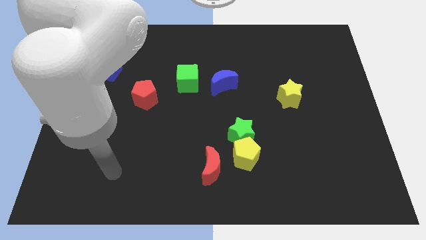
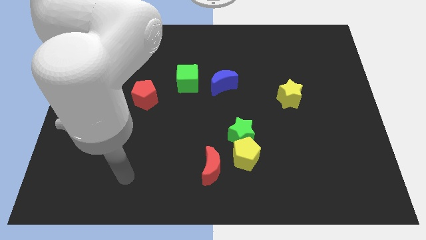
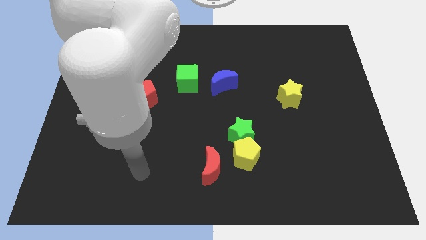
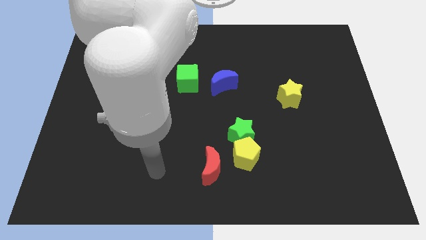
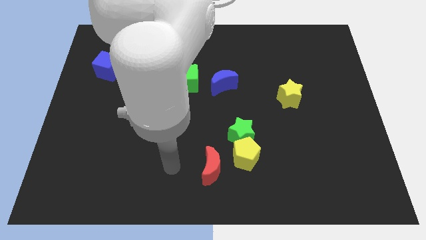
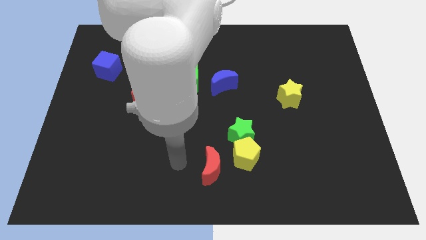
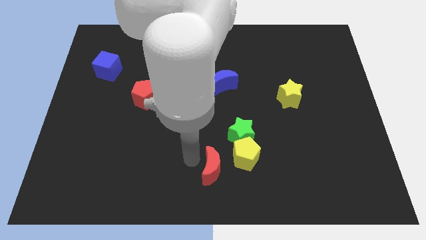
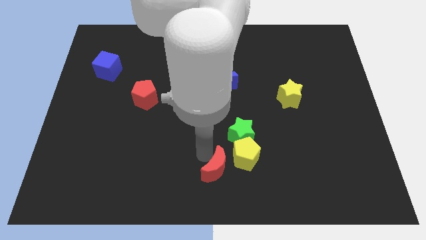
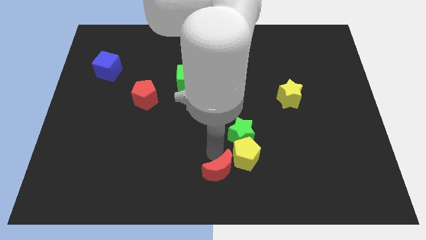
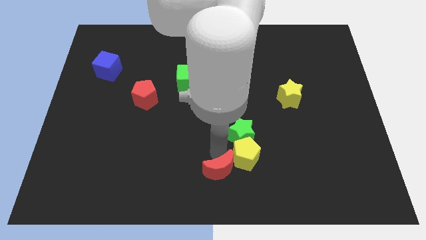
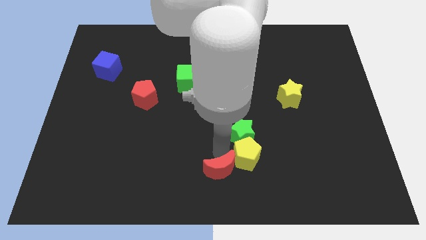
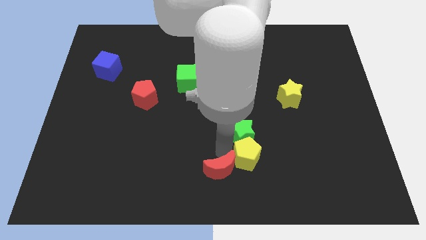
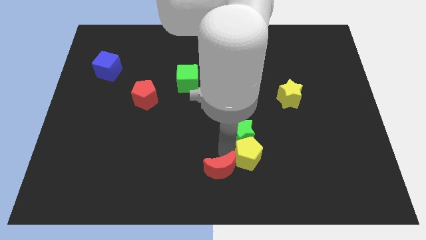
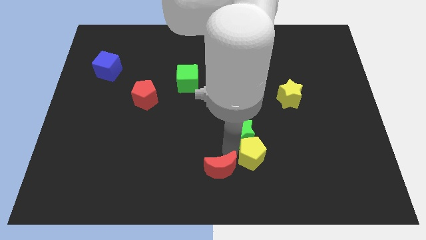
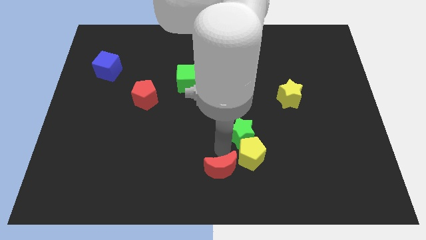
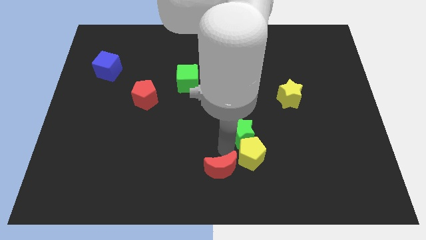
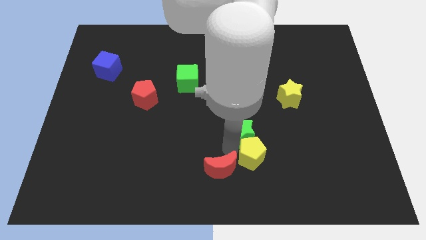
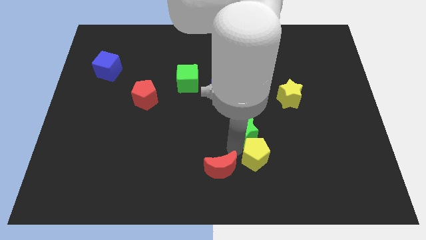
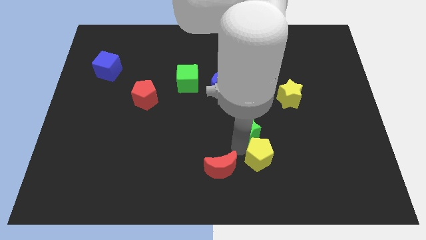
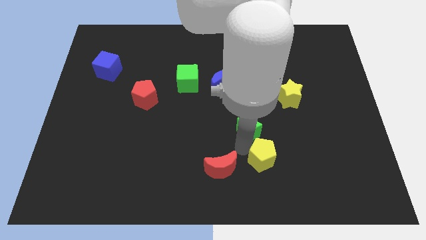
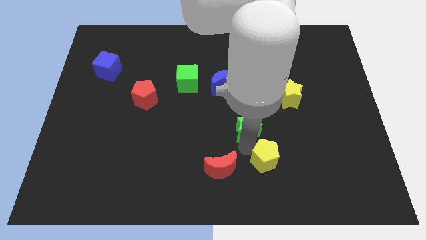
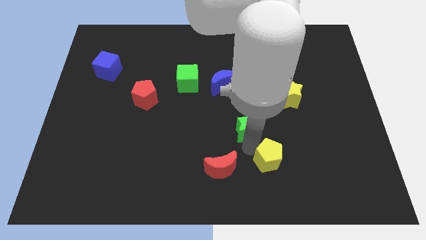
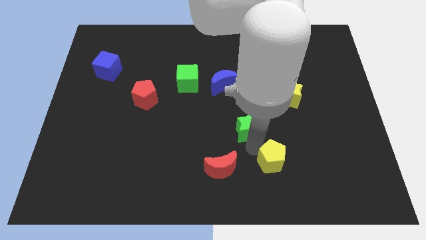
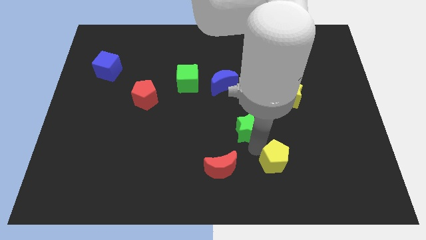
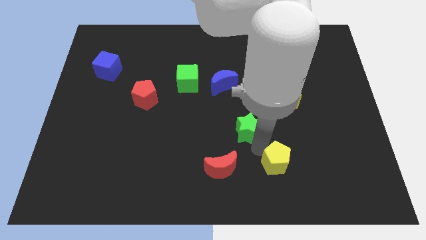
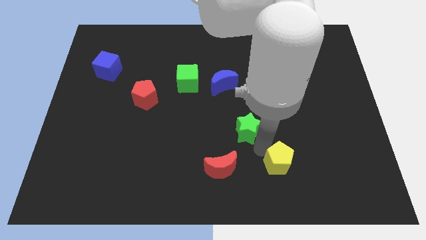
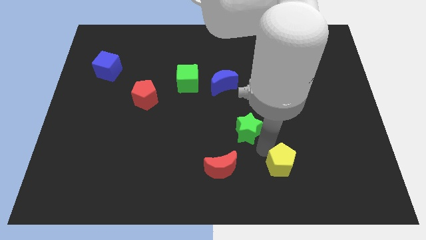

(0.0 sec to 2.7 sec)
move the yellow pentagon away from the green star and red moon

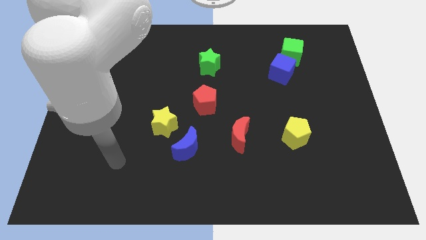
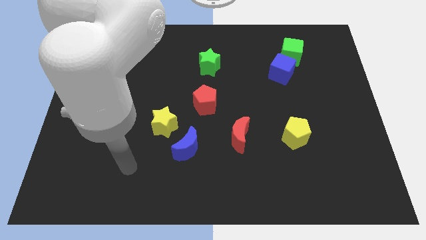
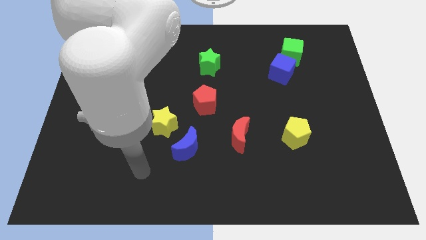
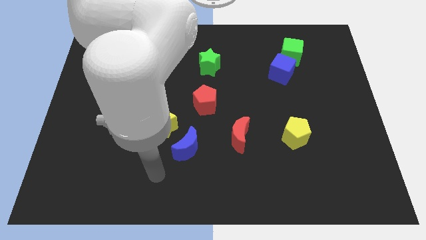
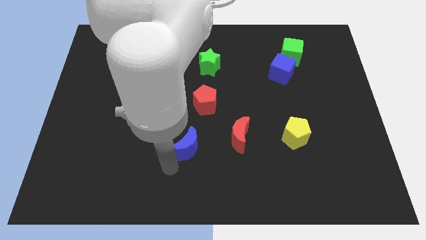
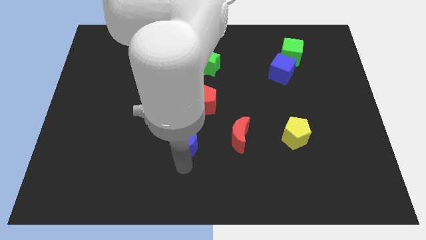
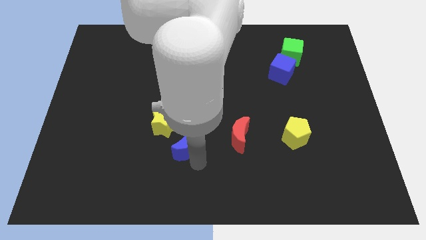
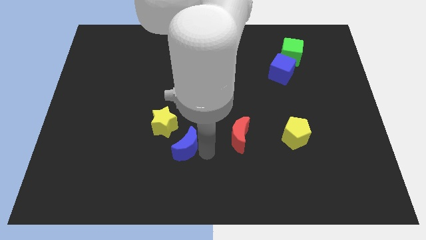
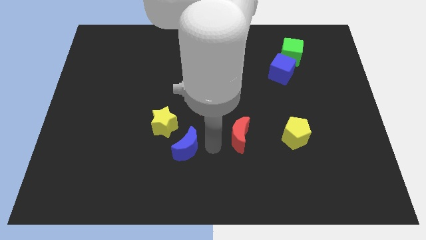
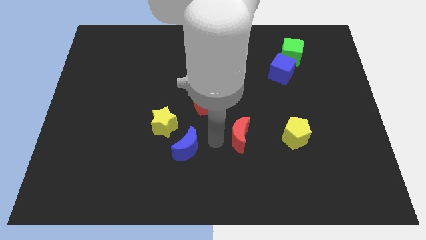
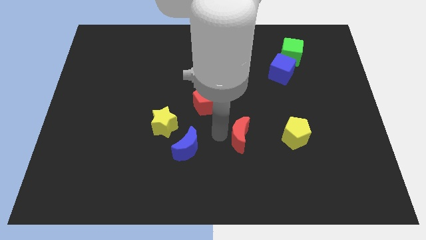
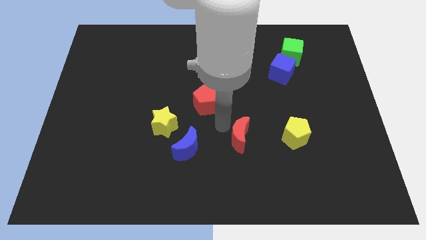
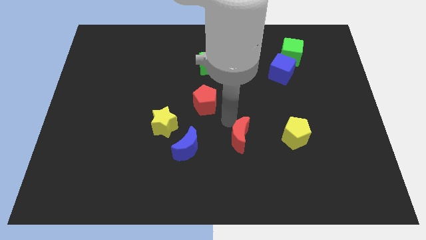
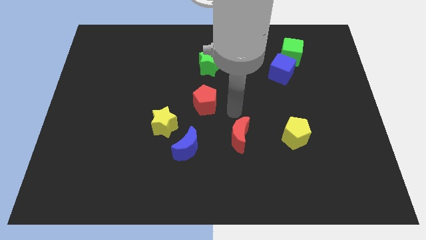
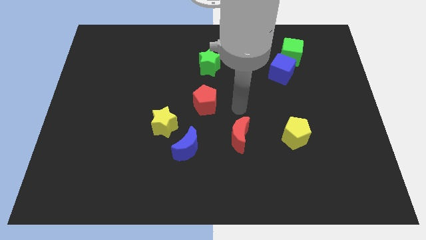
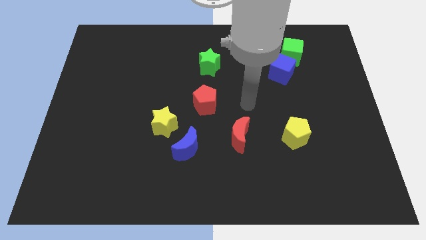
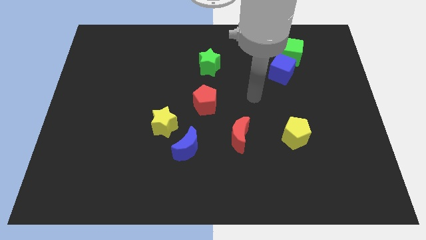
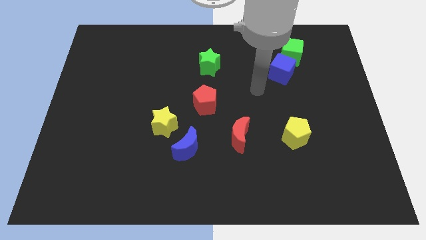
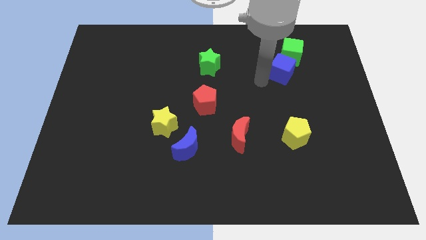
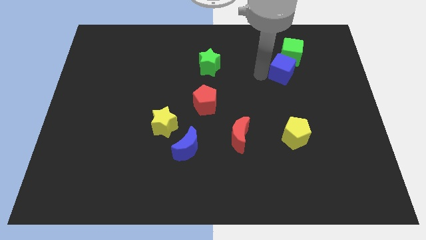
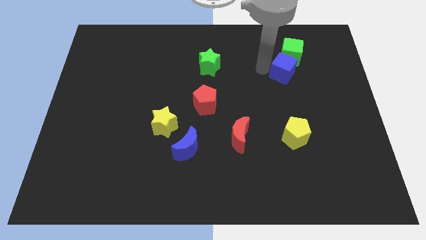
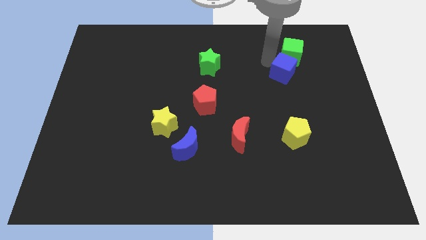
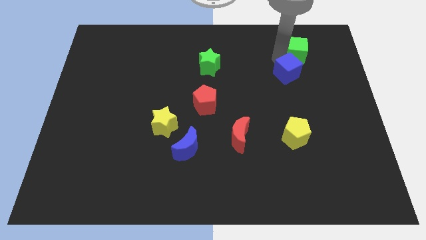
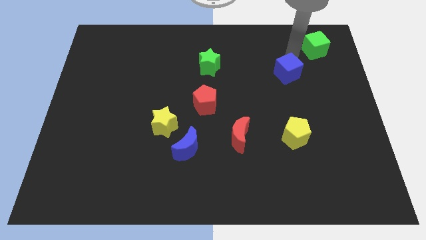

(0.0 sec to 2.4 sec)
pull the blue cube apart from the green cube

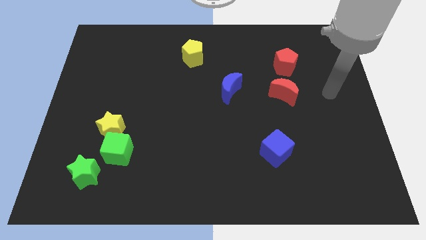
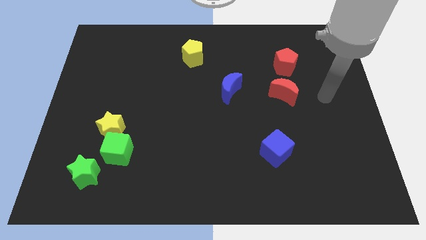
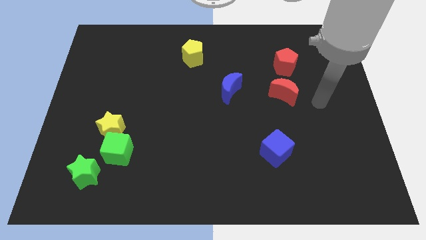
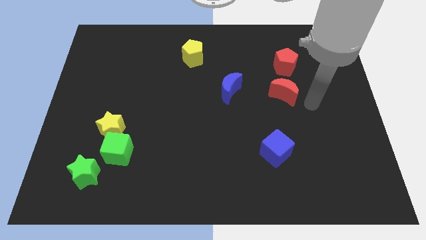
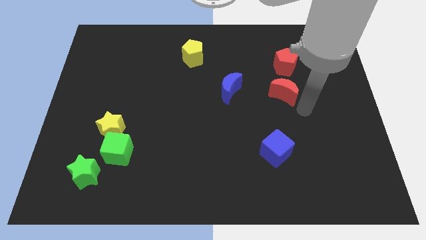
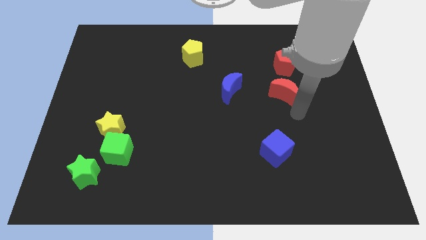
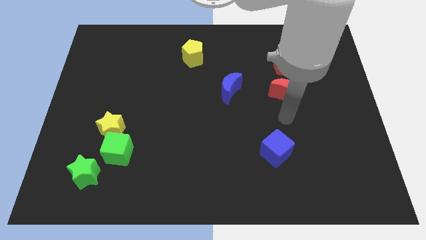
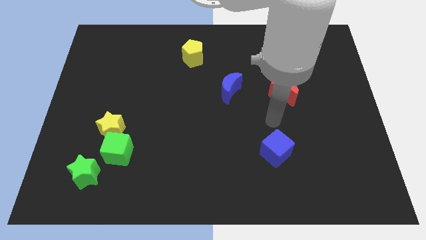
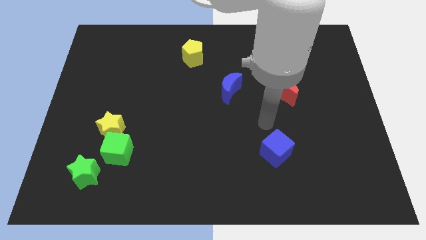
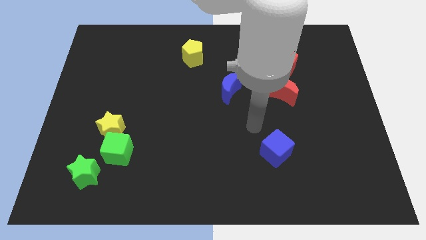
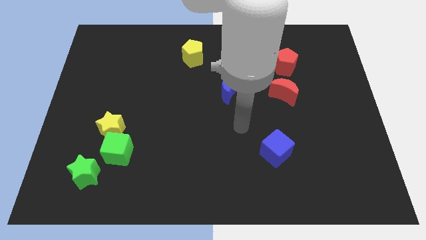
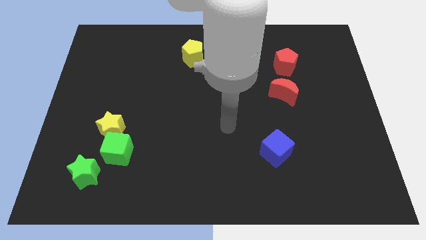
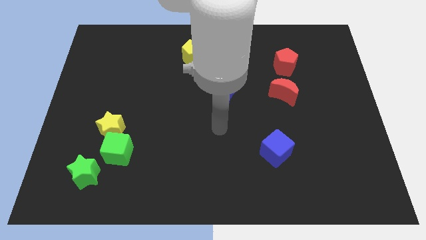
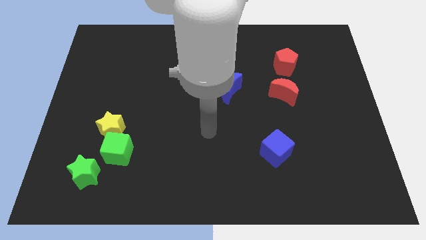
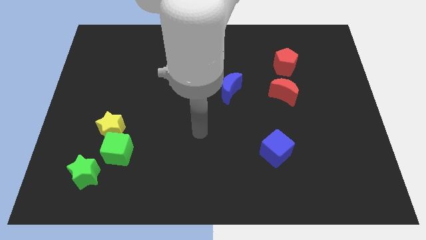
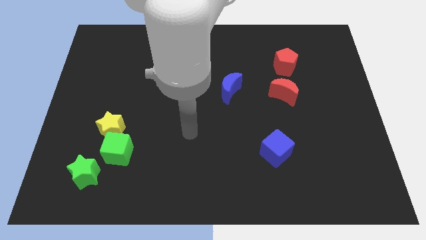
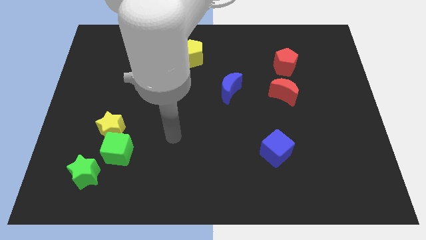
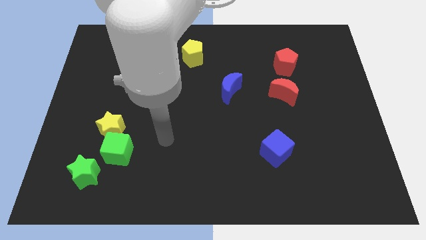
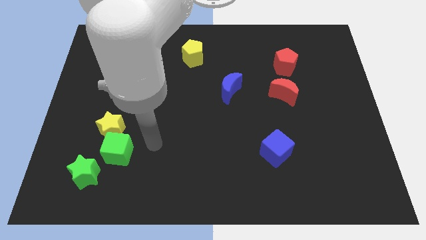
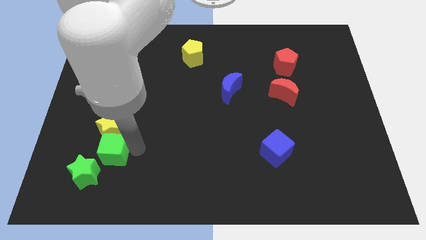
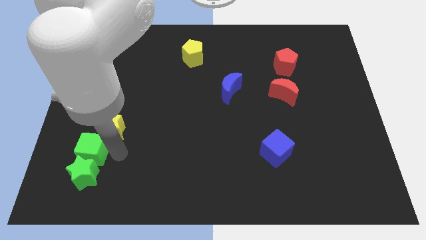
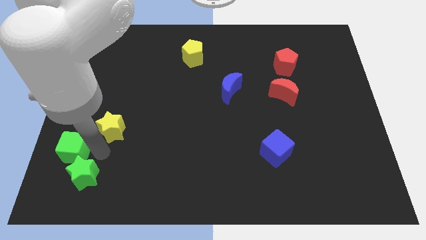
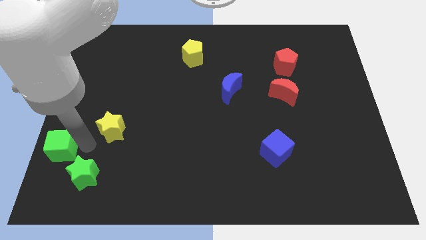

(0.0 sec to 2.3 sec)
separate the yellow star from the green cube

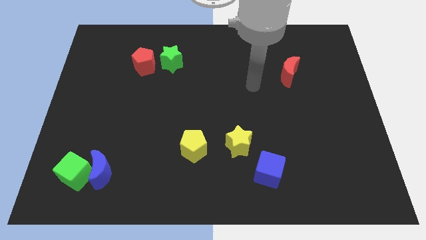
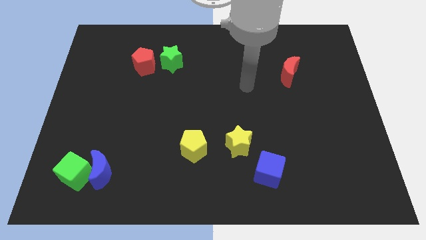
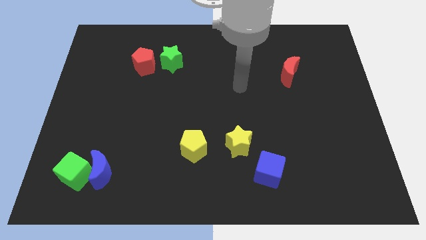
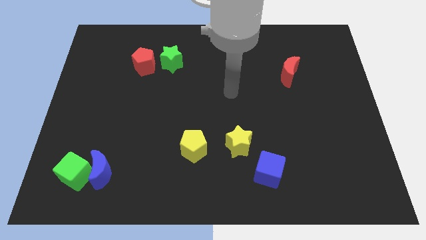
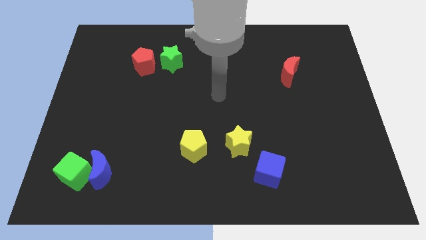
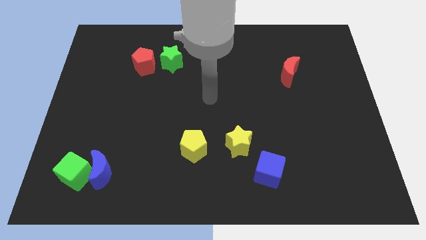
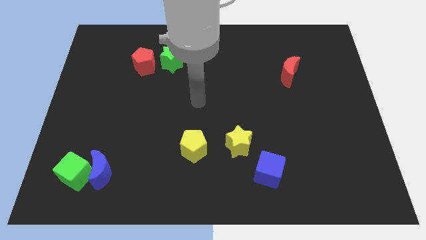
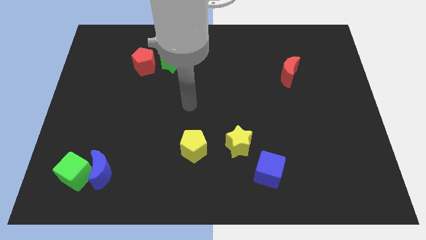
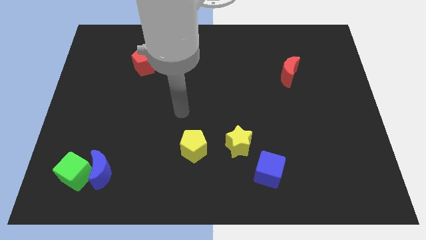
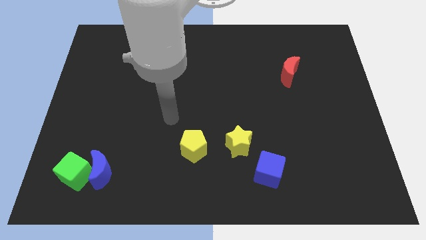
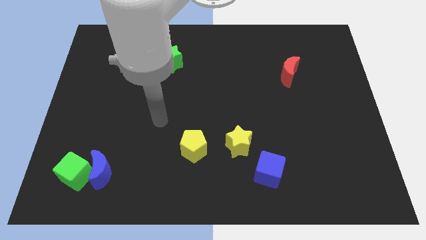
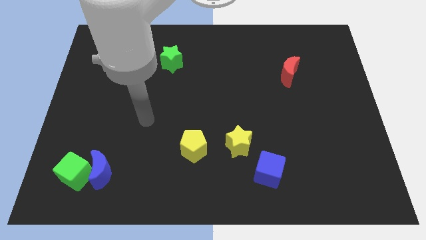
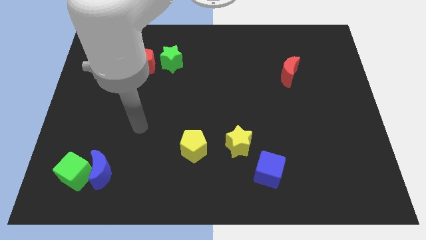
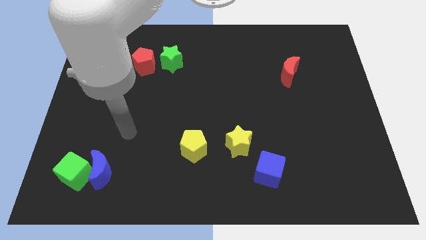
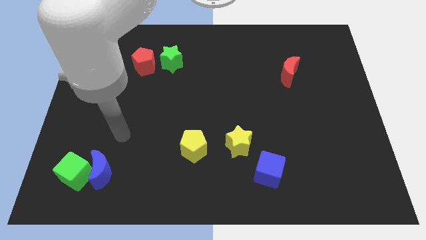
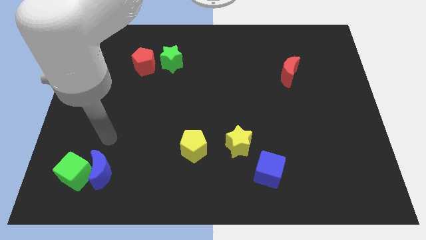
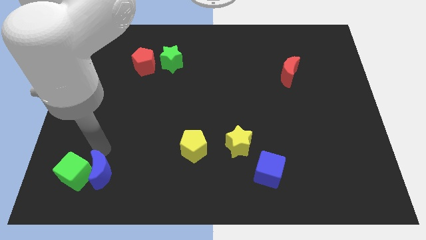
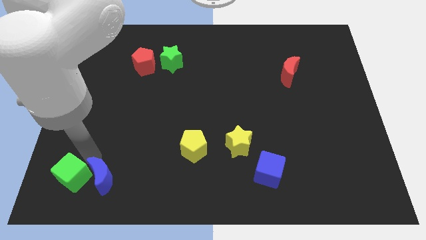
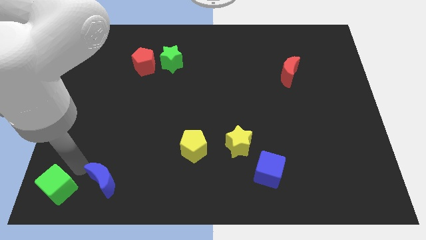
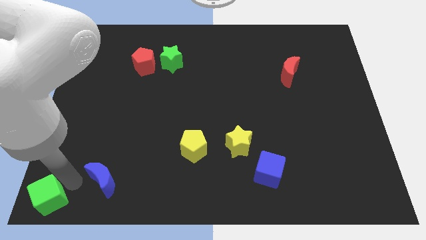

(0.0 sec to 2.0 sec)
move the blue moon away from the green cube
